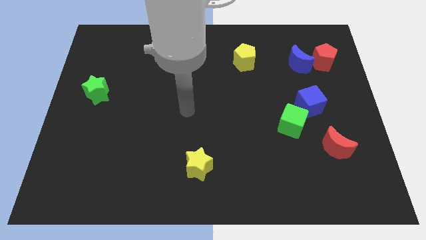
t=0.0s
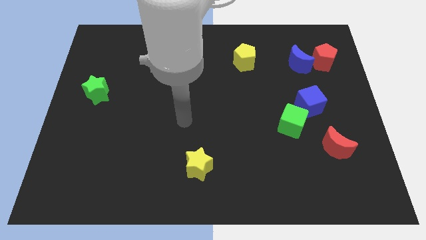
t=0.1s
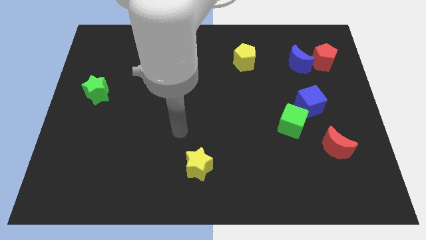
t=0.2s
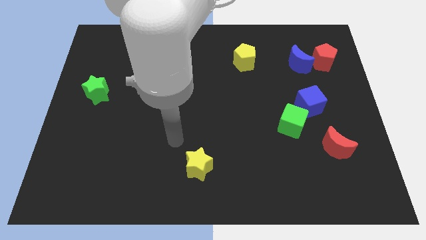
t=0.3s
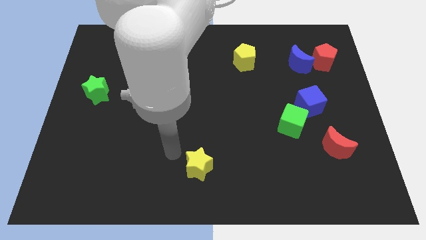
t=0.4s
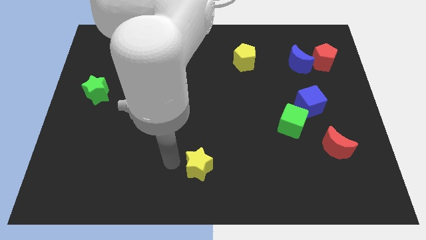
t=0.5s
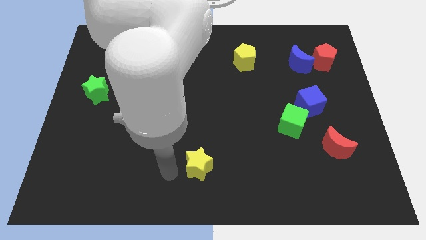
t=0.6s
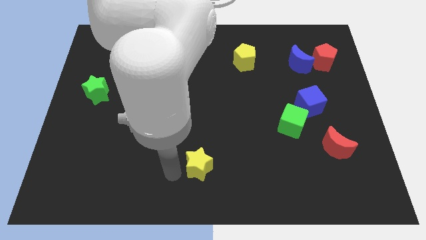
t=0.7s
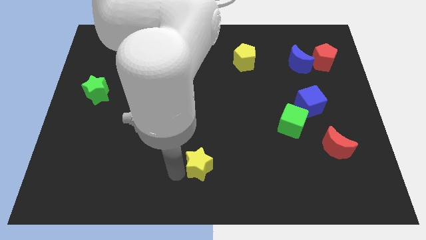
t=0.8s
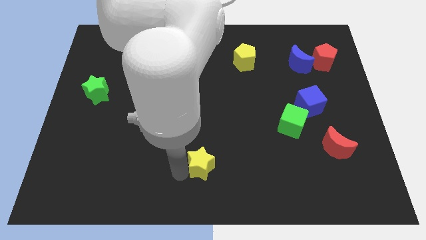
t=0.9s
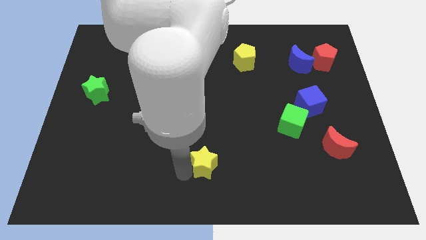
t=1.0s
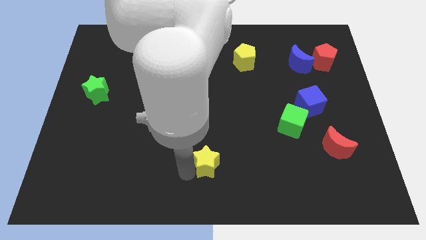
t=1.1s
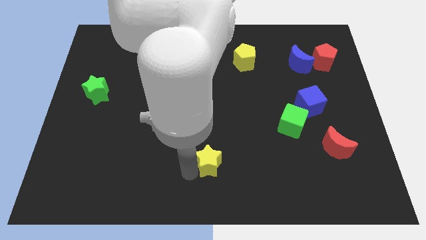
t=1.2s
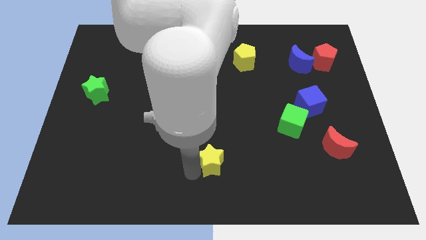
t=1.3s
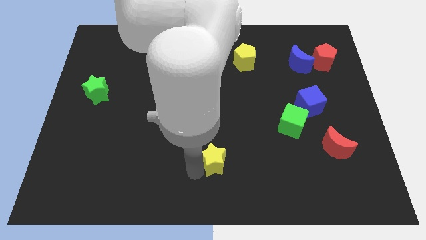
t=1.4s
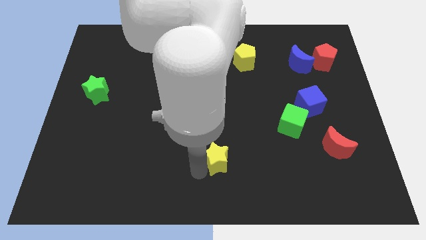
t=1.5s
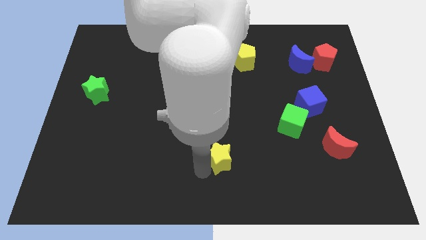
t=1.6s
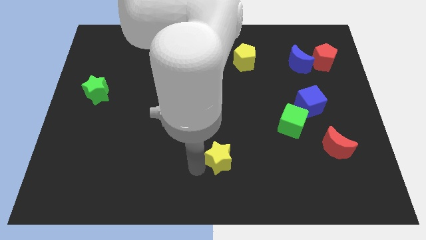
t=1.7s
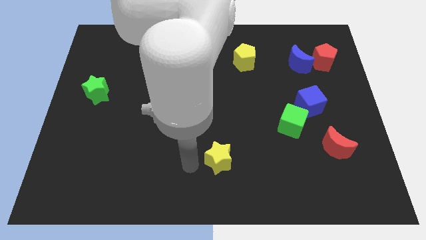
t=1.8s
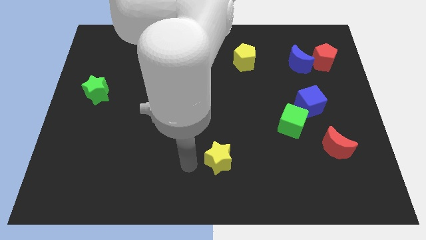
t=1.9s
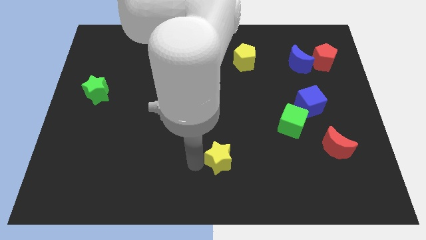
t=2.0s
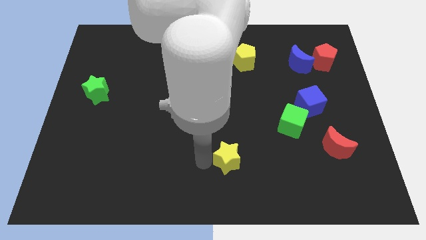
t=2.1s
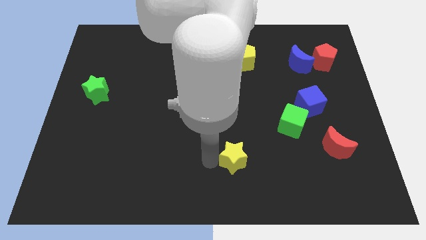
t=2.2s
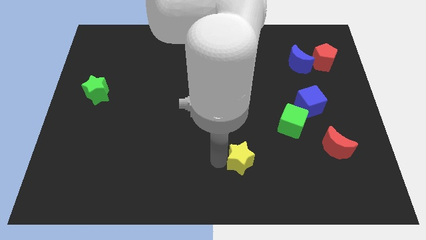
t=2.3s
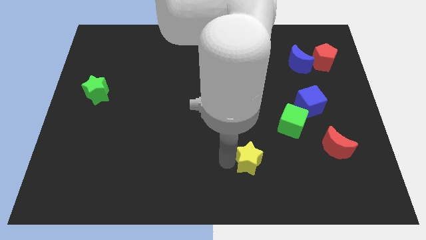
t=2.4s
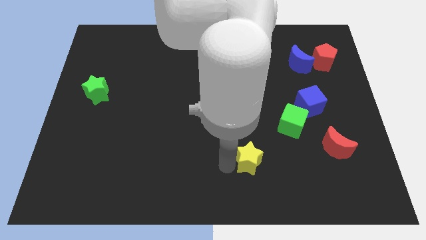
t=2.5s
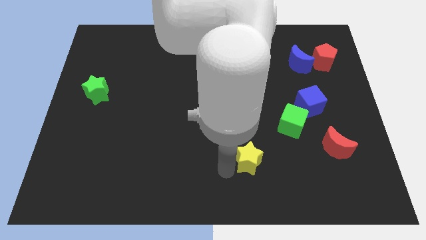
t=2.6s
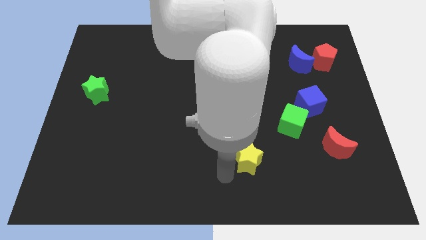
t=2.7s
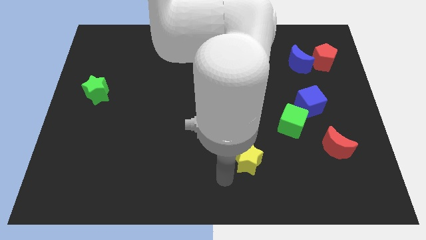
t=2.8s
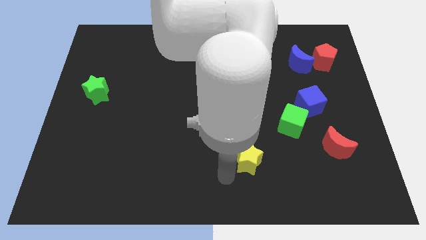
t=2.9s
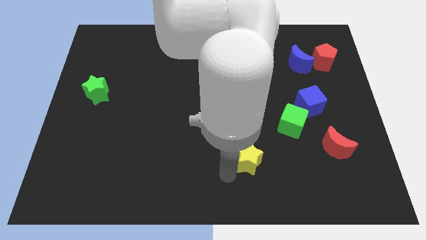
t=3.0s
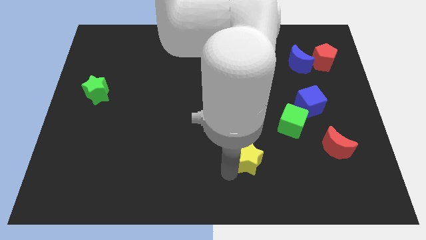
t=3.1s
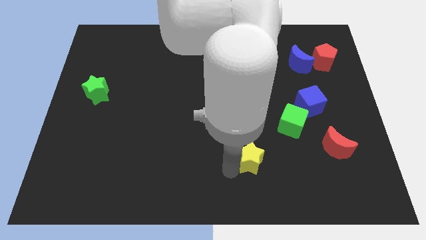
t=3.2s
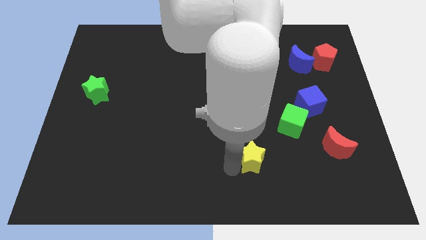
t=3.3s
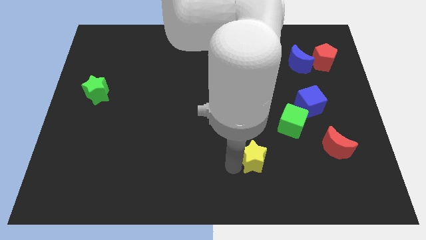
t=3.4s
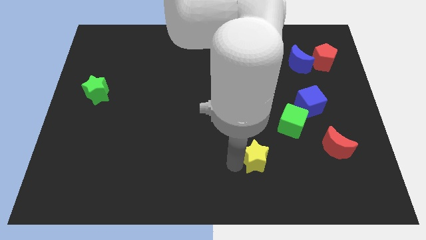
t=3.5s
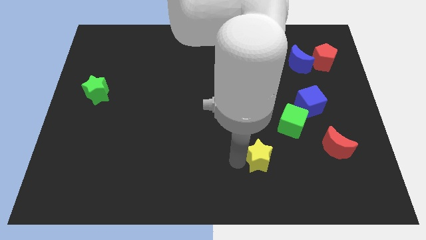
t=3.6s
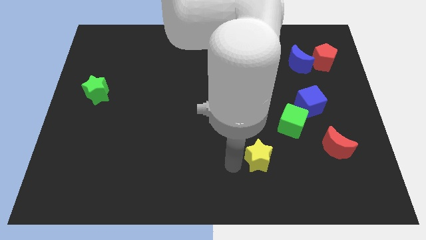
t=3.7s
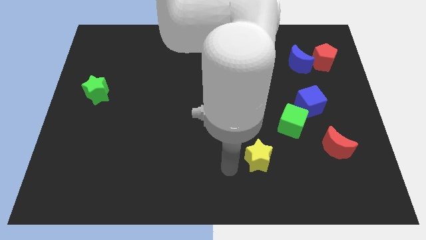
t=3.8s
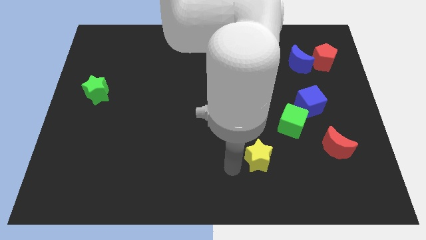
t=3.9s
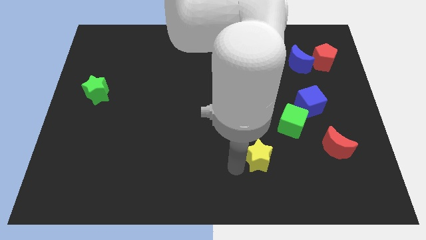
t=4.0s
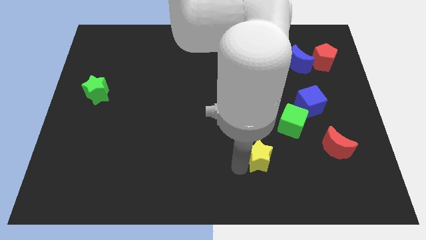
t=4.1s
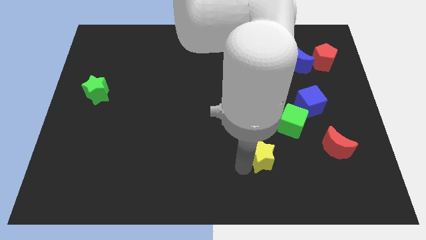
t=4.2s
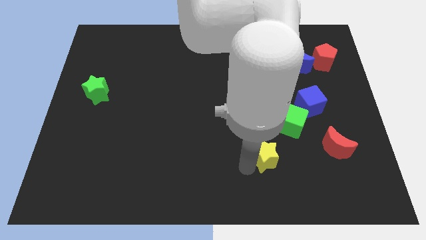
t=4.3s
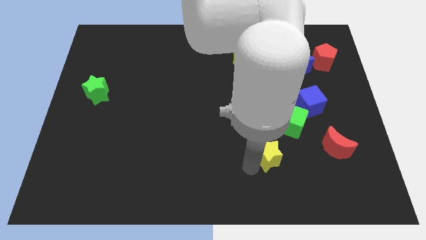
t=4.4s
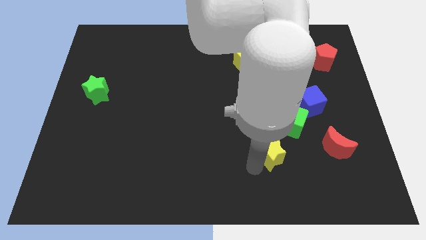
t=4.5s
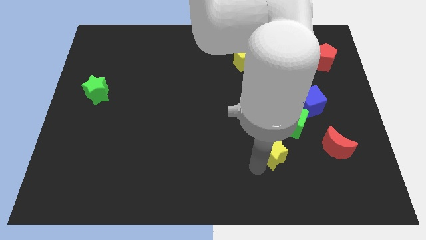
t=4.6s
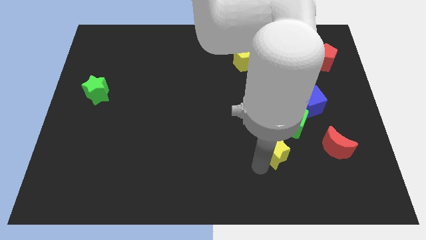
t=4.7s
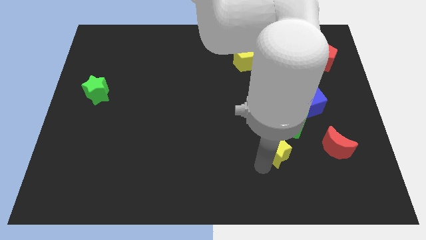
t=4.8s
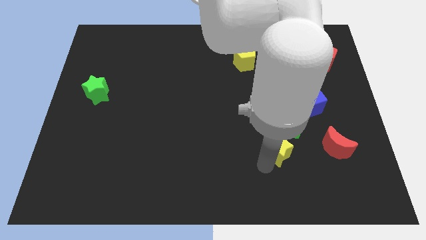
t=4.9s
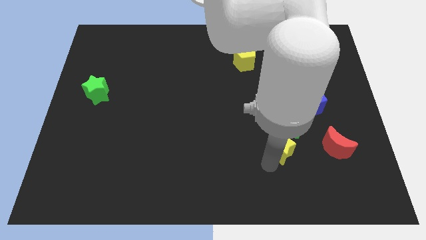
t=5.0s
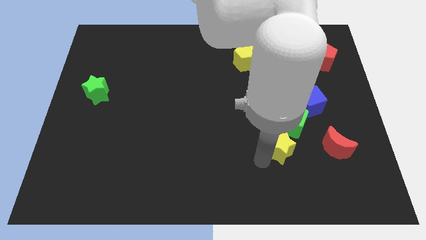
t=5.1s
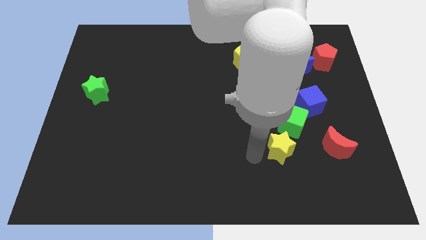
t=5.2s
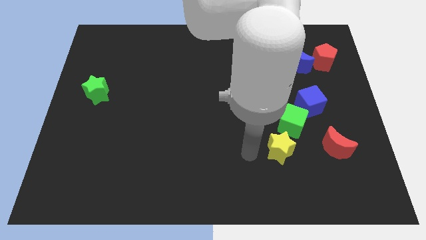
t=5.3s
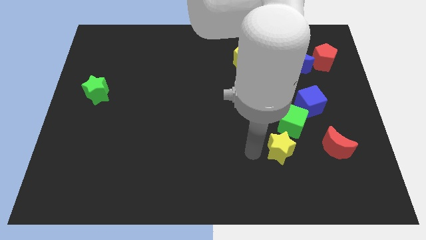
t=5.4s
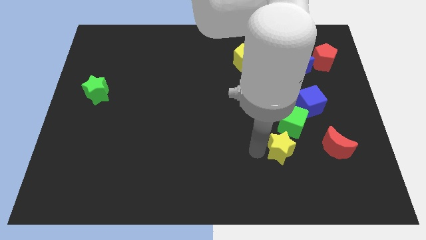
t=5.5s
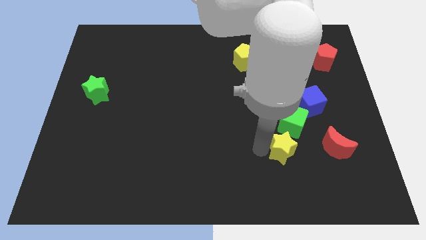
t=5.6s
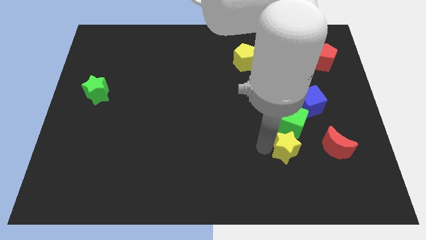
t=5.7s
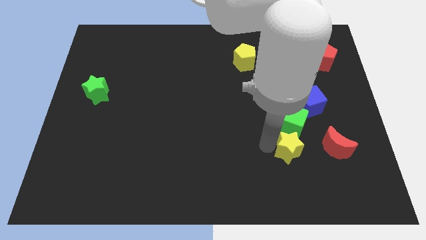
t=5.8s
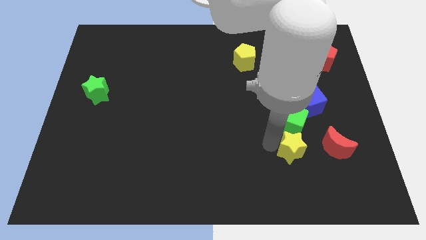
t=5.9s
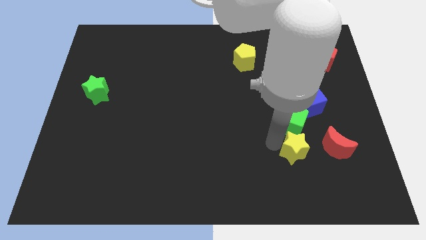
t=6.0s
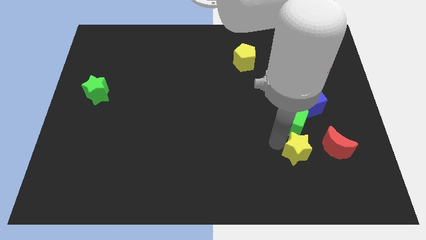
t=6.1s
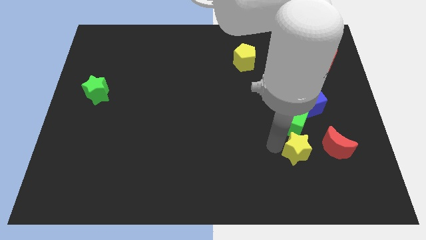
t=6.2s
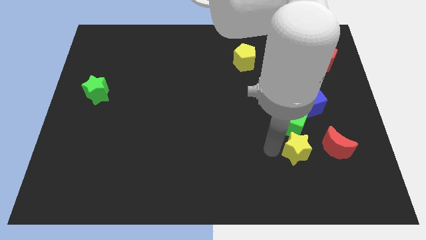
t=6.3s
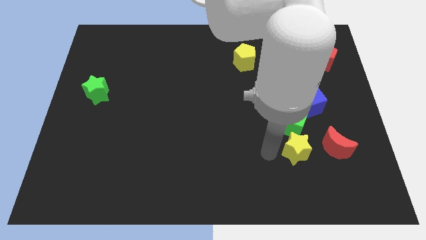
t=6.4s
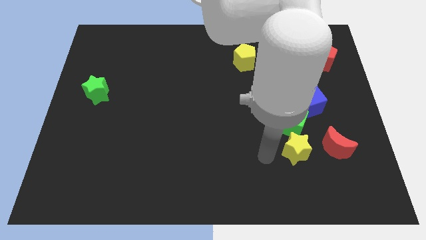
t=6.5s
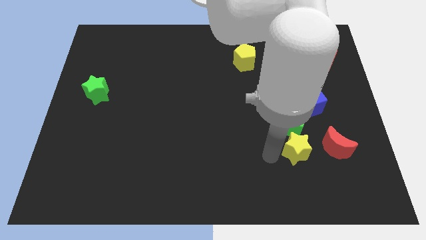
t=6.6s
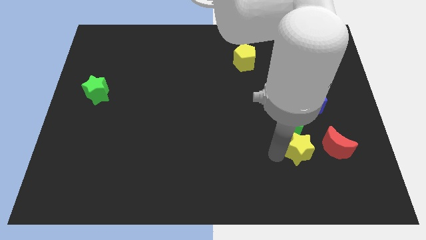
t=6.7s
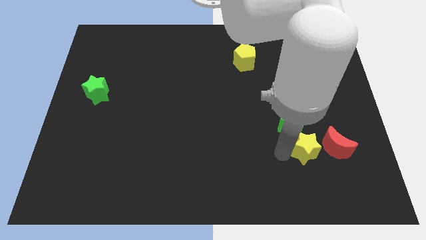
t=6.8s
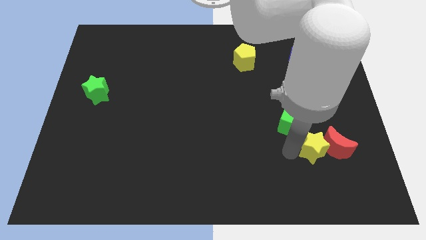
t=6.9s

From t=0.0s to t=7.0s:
put the yellow star next to the red moon
